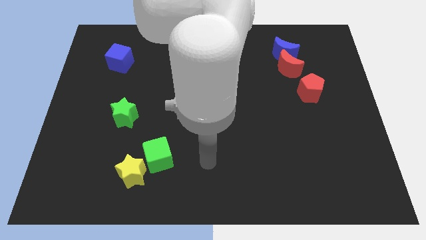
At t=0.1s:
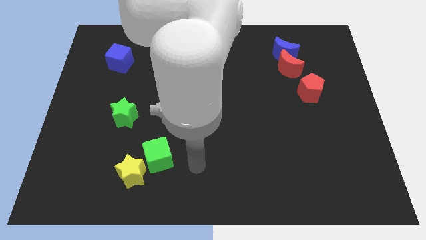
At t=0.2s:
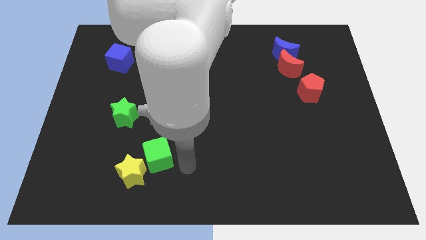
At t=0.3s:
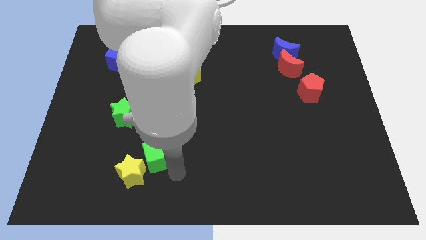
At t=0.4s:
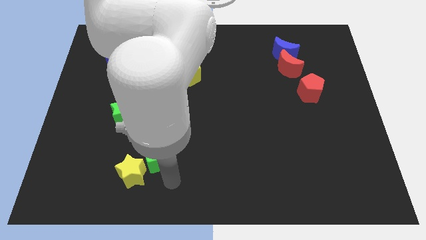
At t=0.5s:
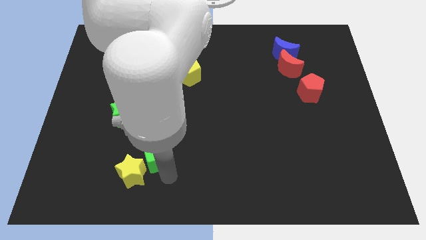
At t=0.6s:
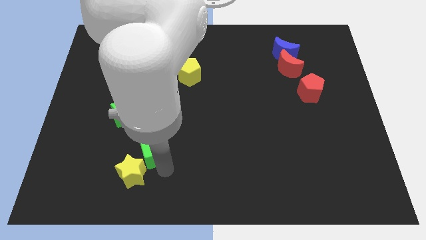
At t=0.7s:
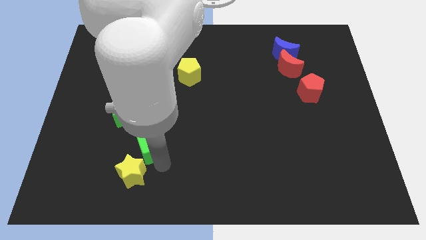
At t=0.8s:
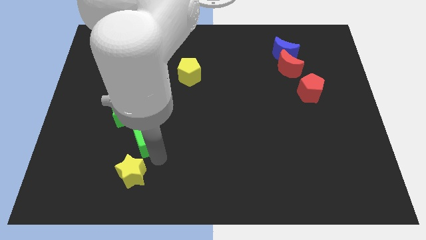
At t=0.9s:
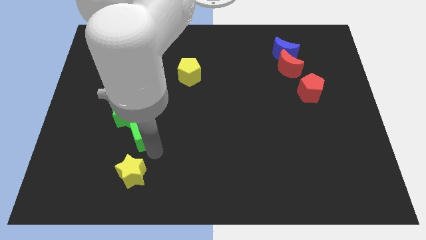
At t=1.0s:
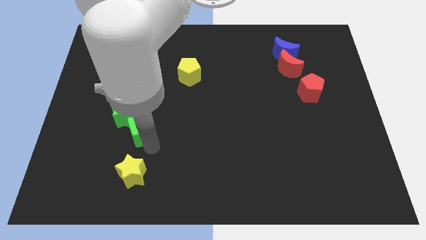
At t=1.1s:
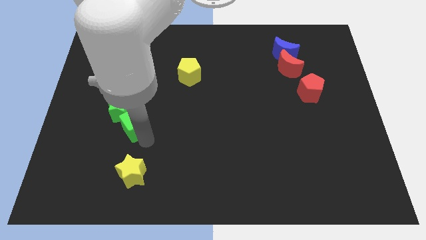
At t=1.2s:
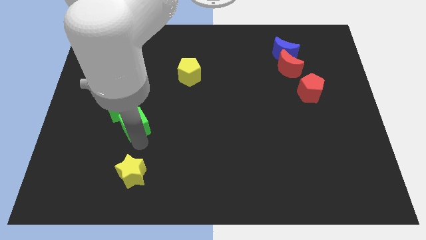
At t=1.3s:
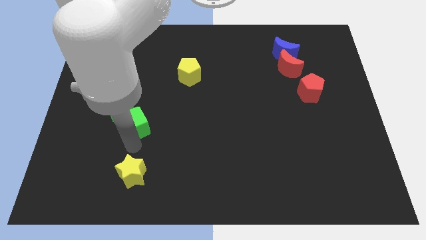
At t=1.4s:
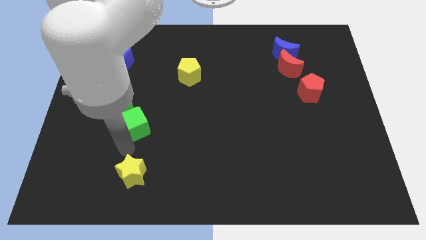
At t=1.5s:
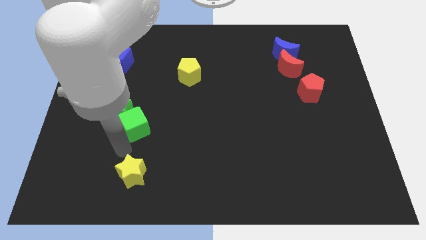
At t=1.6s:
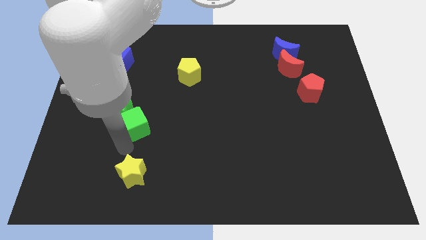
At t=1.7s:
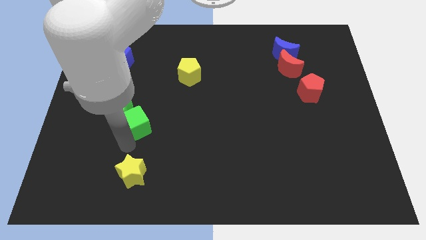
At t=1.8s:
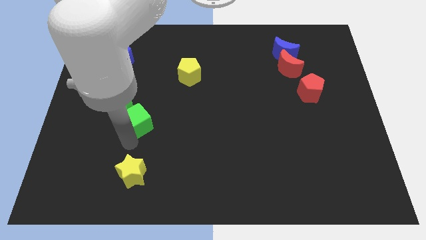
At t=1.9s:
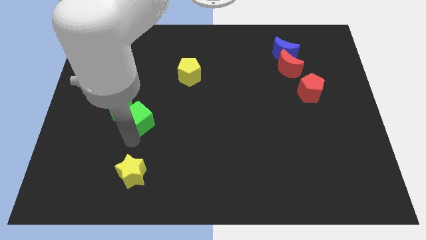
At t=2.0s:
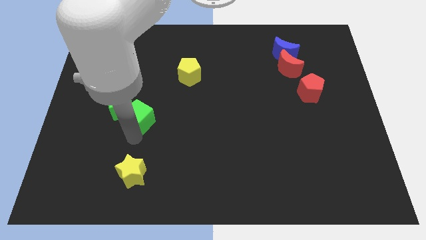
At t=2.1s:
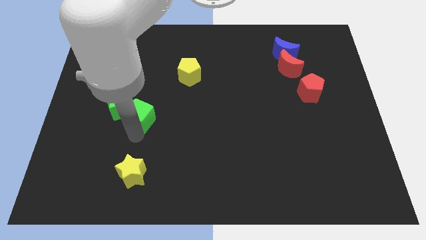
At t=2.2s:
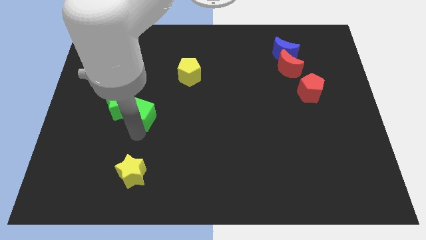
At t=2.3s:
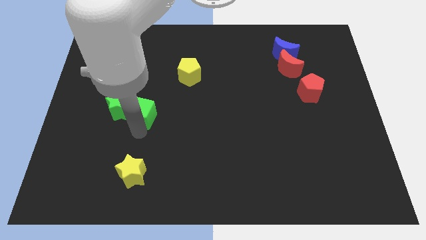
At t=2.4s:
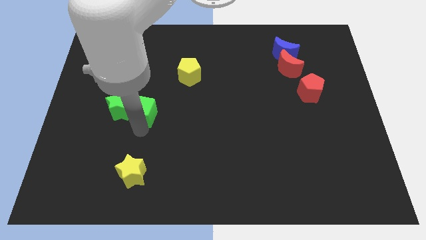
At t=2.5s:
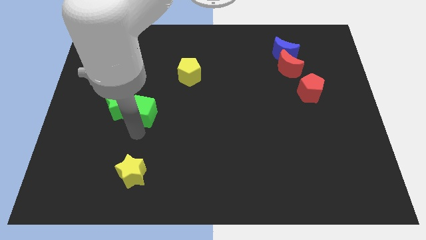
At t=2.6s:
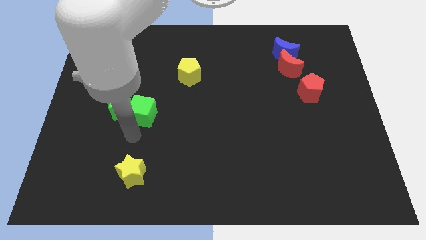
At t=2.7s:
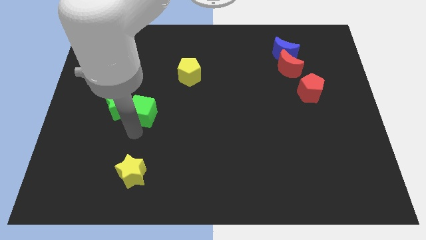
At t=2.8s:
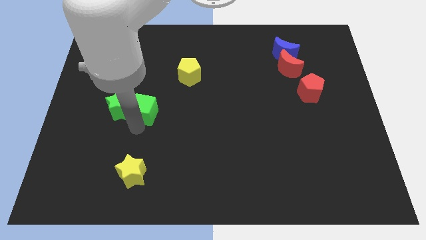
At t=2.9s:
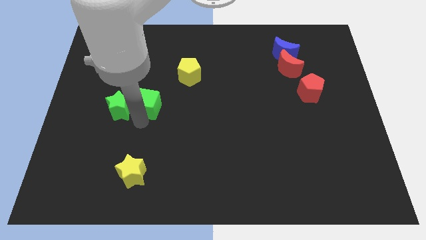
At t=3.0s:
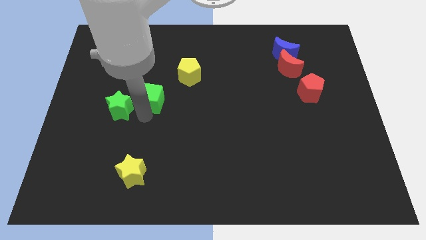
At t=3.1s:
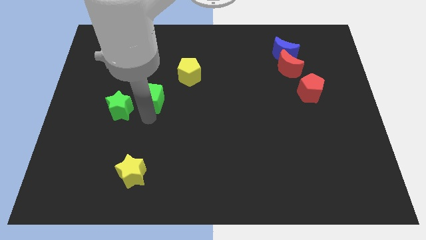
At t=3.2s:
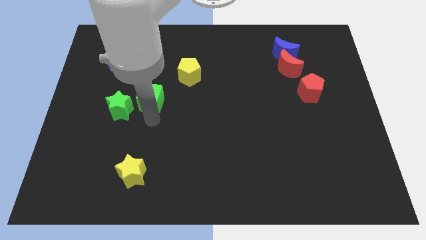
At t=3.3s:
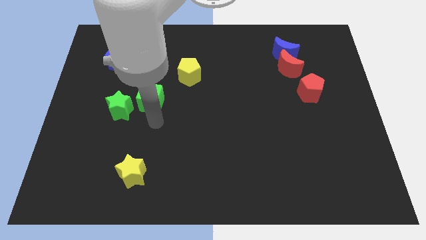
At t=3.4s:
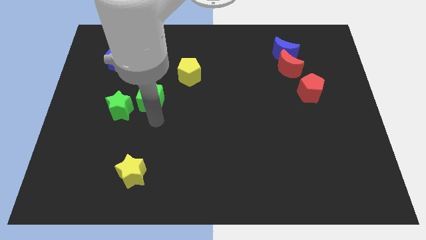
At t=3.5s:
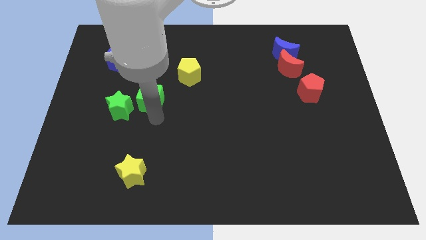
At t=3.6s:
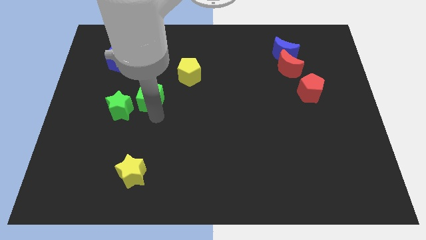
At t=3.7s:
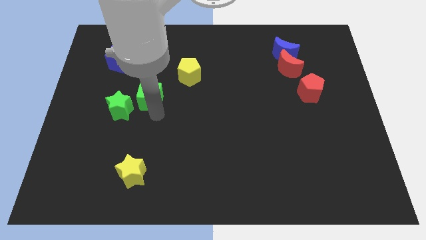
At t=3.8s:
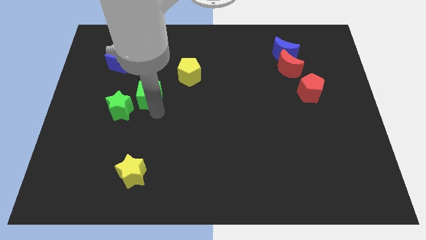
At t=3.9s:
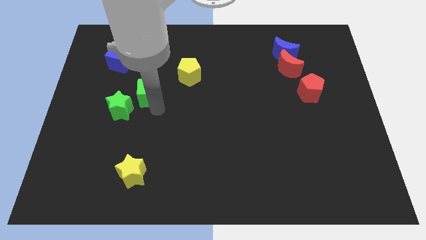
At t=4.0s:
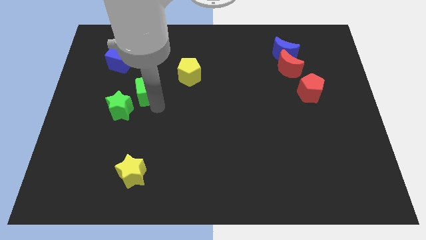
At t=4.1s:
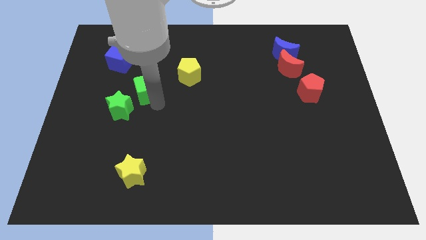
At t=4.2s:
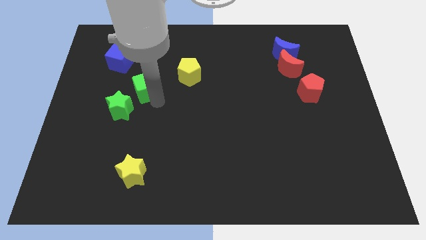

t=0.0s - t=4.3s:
move the green cube diagonally down and to the right of the blue cube

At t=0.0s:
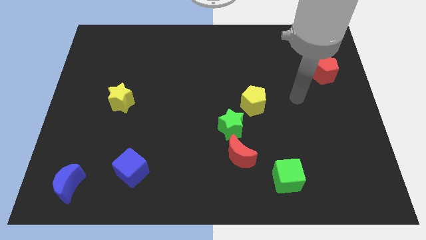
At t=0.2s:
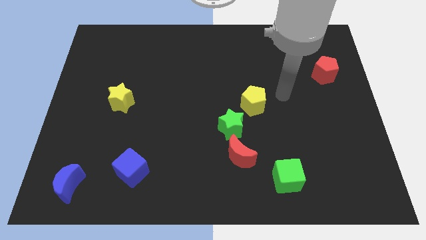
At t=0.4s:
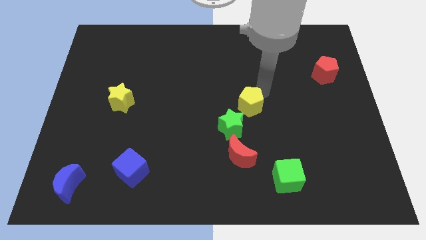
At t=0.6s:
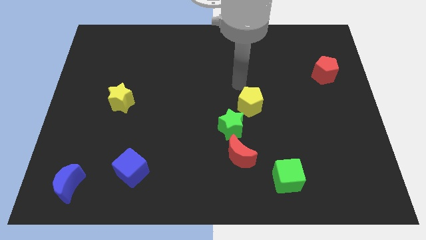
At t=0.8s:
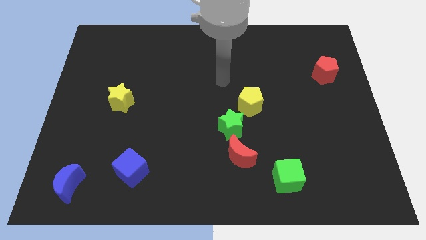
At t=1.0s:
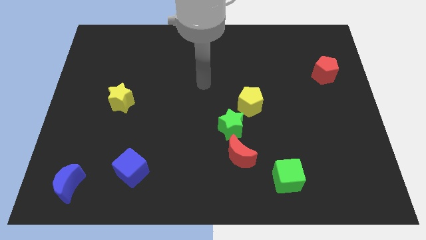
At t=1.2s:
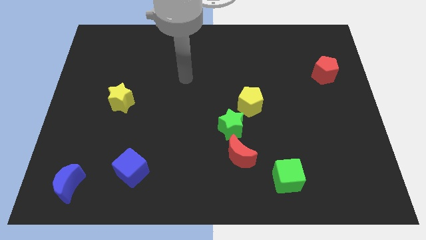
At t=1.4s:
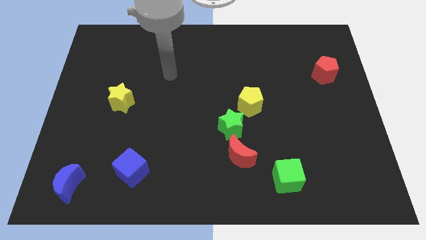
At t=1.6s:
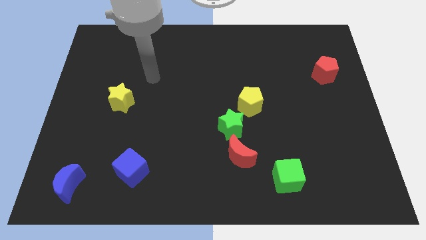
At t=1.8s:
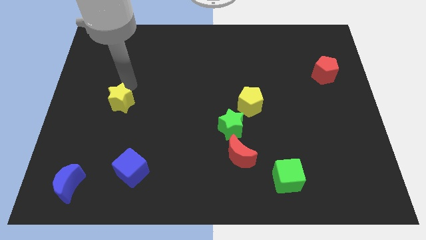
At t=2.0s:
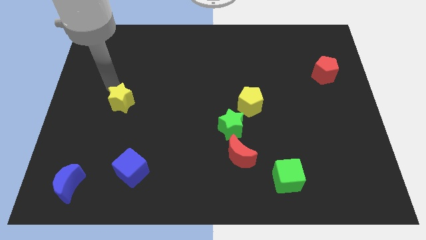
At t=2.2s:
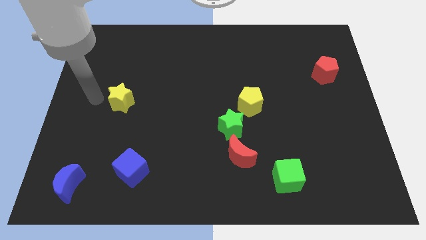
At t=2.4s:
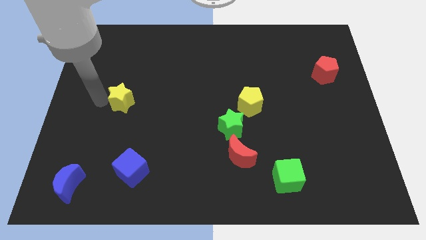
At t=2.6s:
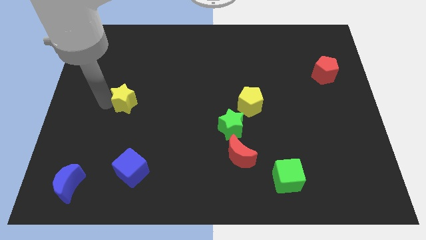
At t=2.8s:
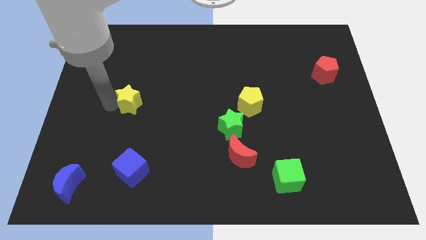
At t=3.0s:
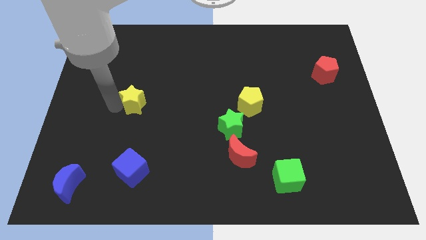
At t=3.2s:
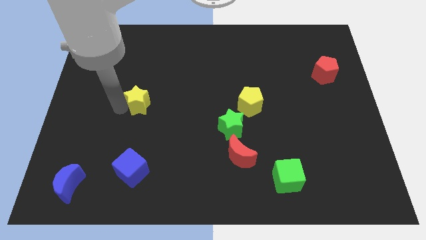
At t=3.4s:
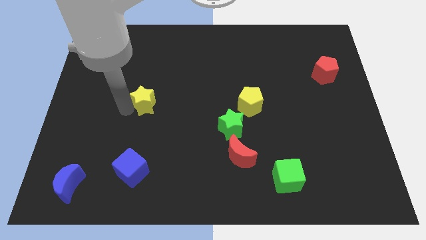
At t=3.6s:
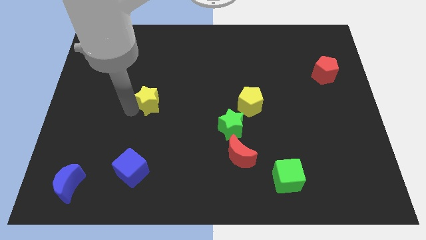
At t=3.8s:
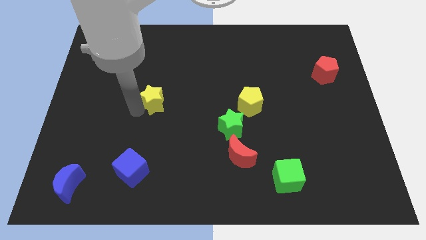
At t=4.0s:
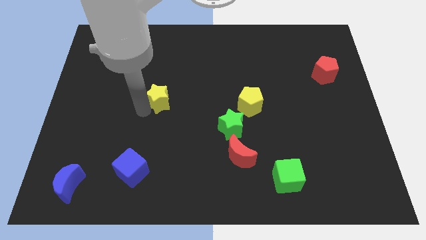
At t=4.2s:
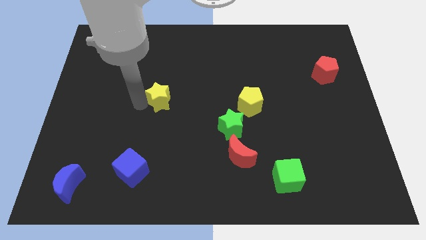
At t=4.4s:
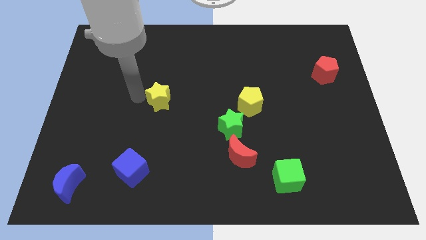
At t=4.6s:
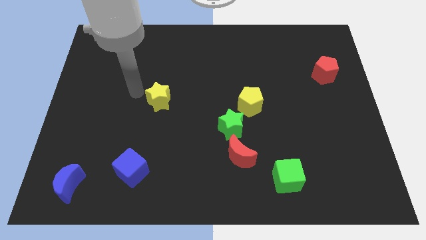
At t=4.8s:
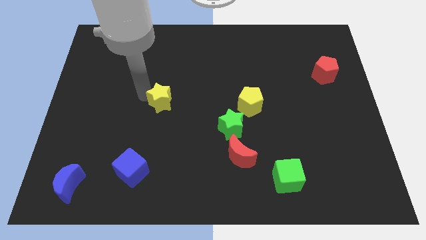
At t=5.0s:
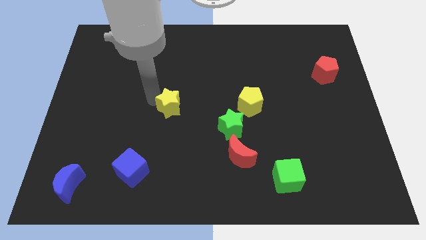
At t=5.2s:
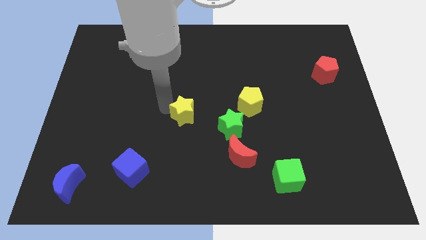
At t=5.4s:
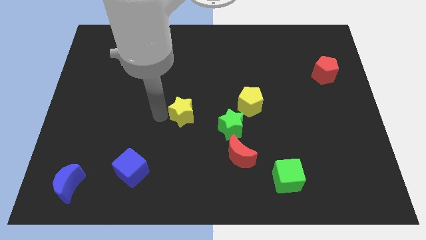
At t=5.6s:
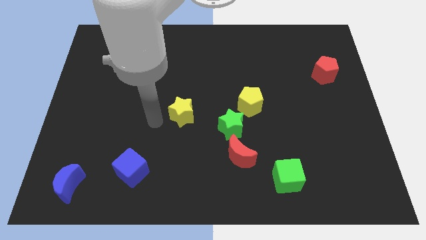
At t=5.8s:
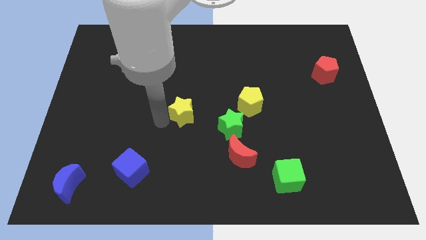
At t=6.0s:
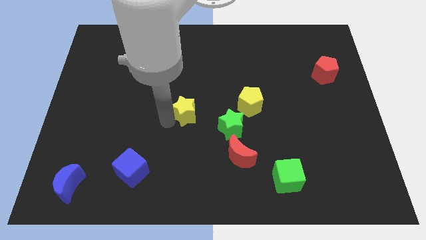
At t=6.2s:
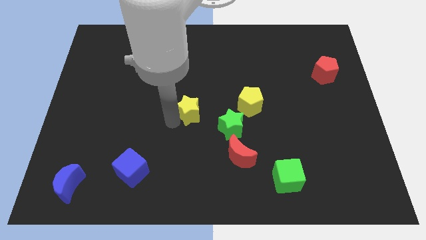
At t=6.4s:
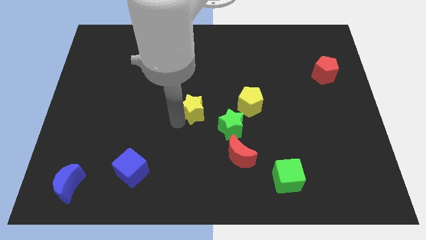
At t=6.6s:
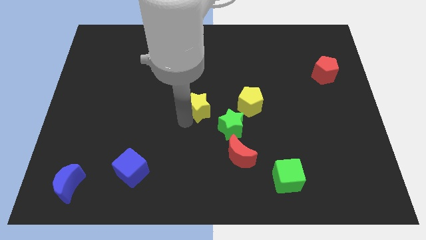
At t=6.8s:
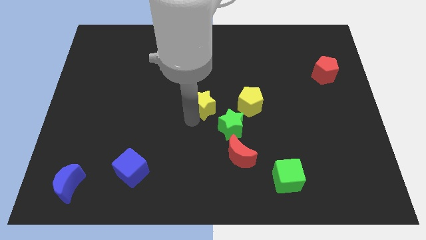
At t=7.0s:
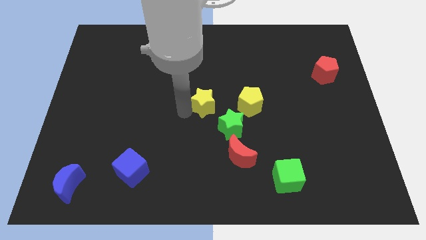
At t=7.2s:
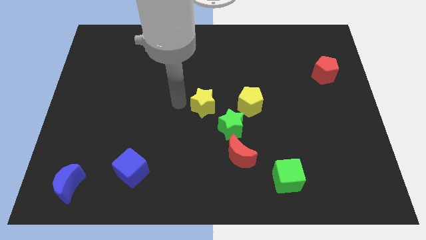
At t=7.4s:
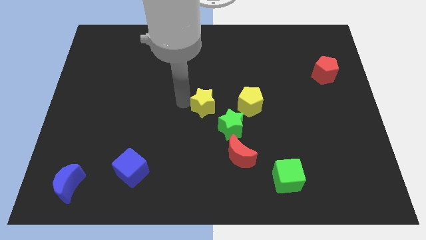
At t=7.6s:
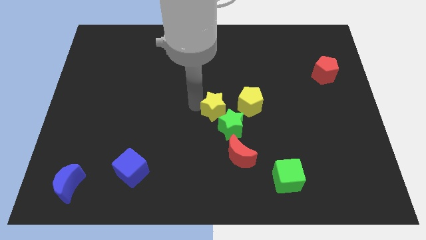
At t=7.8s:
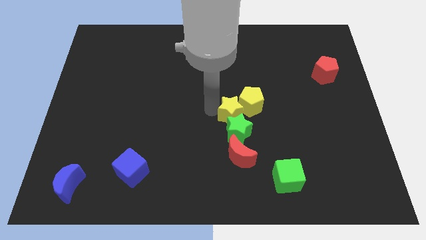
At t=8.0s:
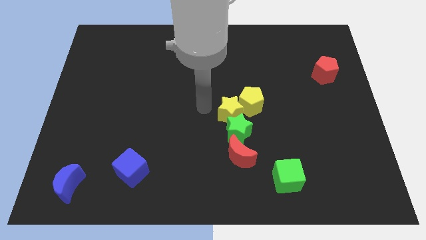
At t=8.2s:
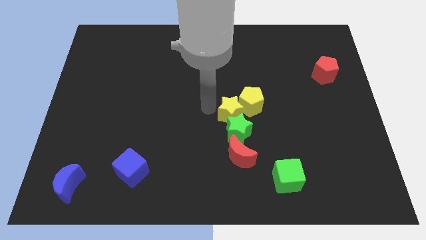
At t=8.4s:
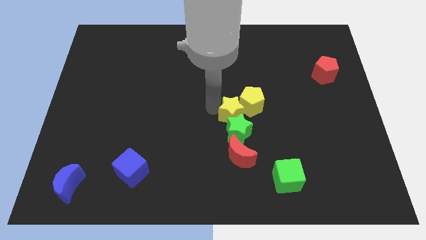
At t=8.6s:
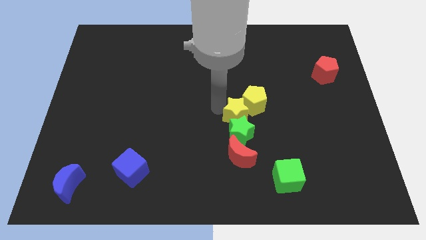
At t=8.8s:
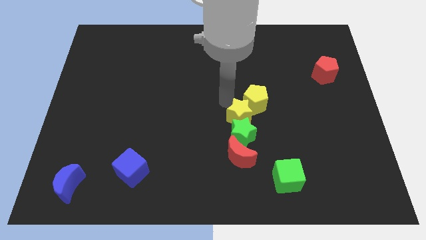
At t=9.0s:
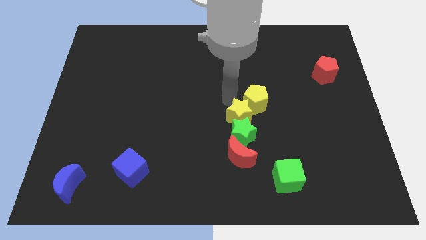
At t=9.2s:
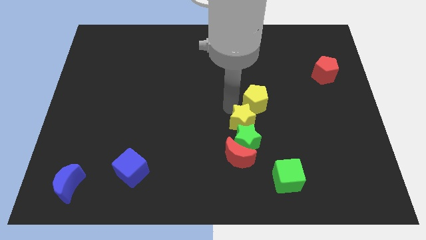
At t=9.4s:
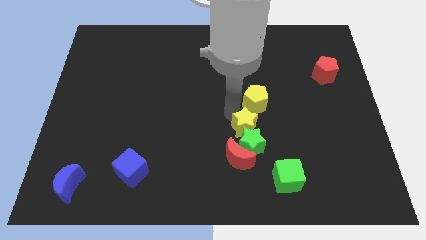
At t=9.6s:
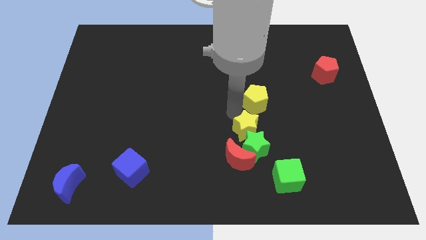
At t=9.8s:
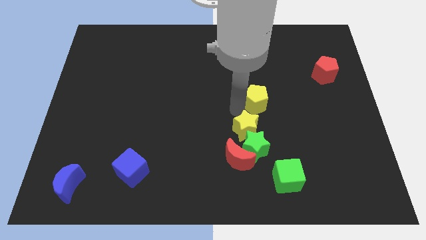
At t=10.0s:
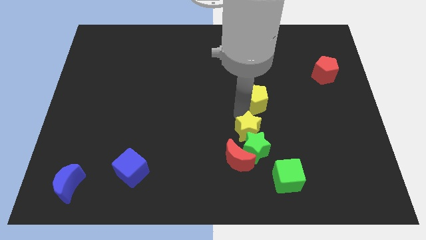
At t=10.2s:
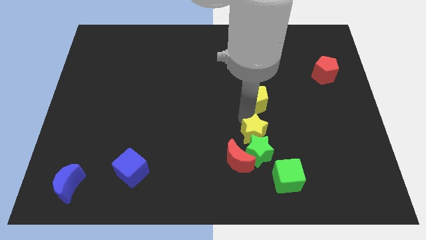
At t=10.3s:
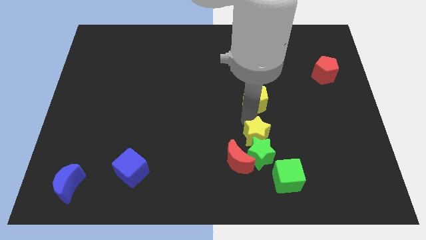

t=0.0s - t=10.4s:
slide the yellow star diagonally up and to the left of the green cube
